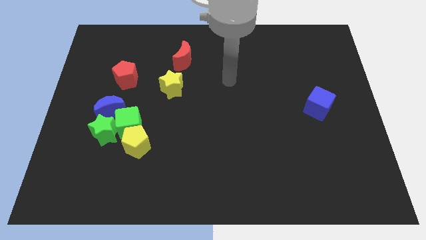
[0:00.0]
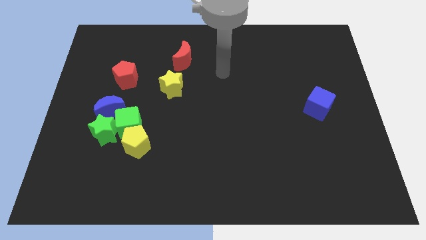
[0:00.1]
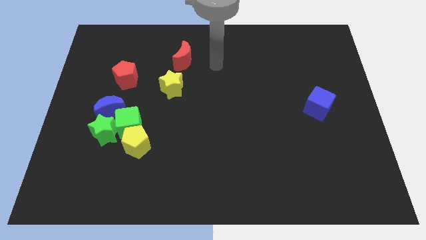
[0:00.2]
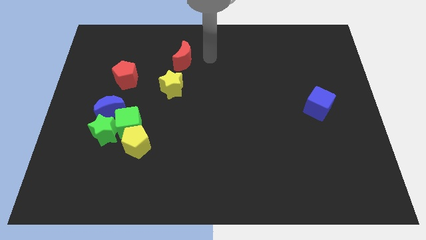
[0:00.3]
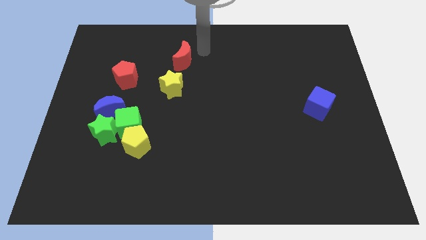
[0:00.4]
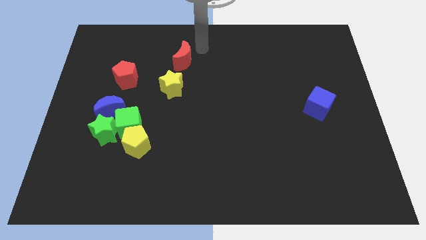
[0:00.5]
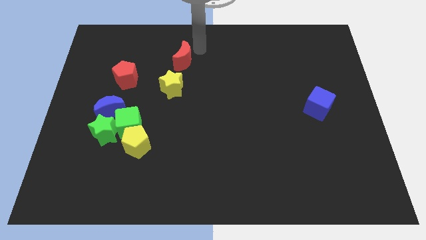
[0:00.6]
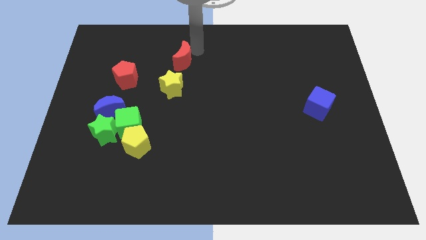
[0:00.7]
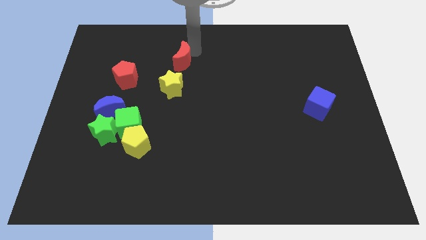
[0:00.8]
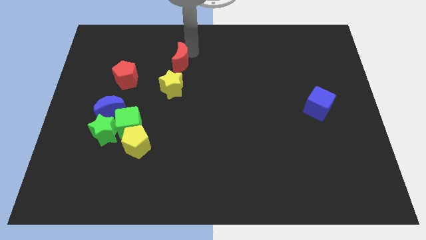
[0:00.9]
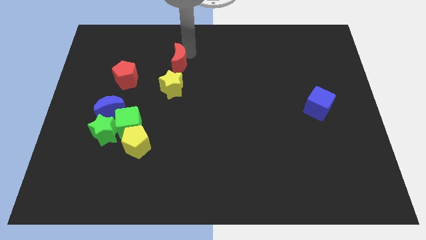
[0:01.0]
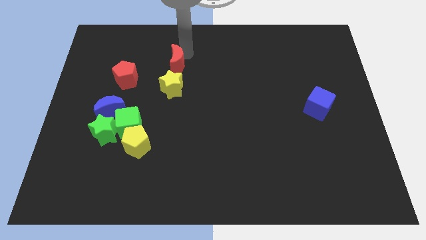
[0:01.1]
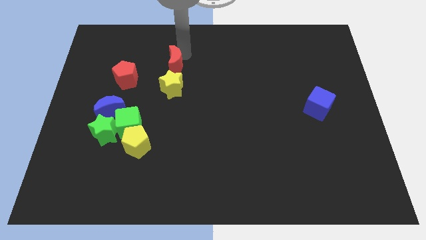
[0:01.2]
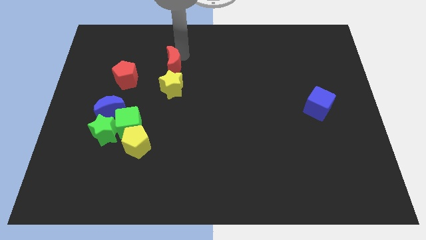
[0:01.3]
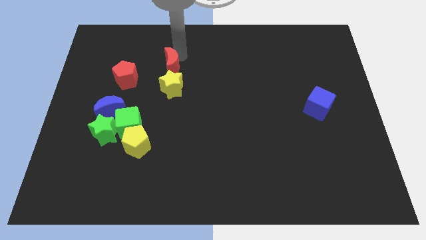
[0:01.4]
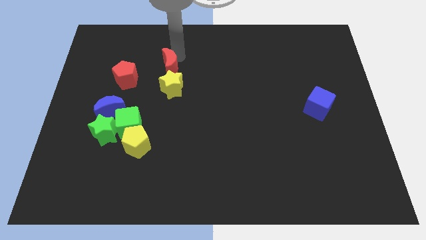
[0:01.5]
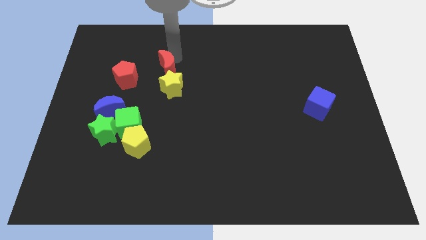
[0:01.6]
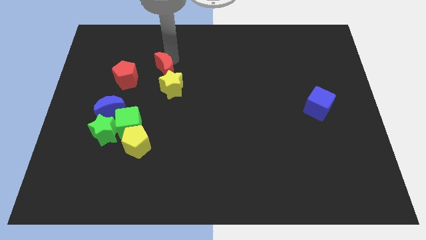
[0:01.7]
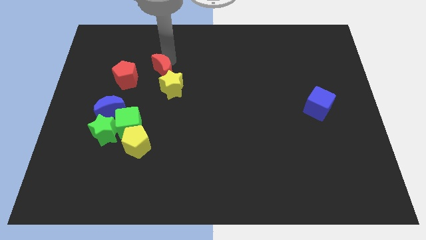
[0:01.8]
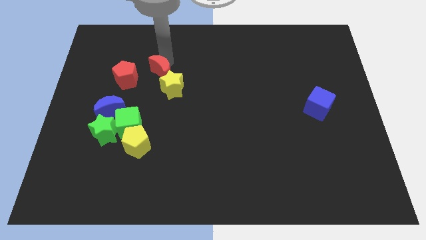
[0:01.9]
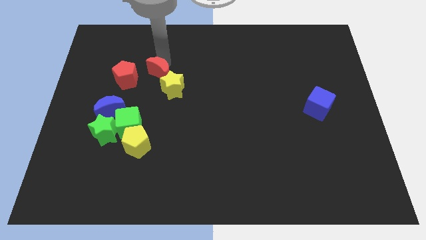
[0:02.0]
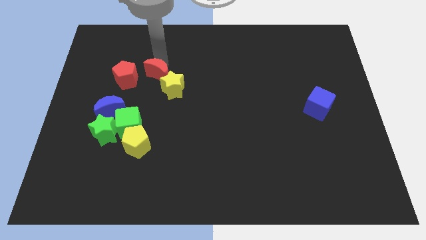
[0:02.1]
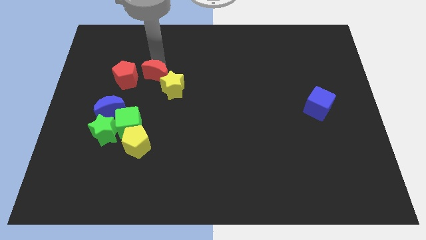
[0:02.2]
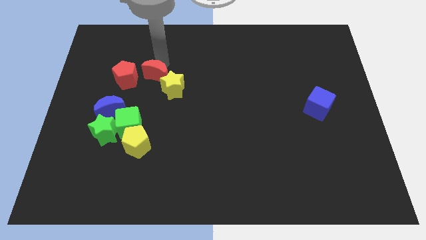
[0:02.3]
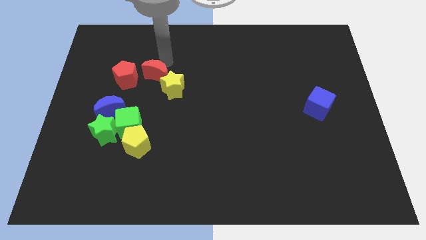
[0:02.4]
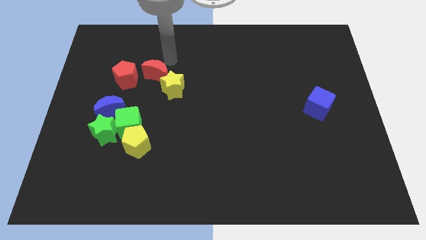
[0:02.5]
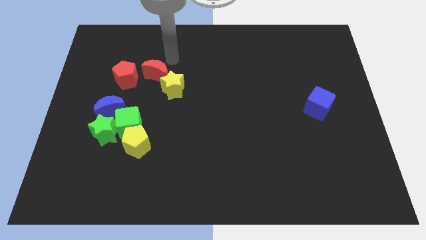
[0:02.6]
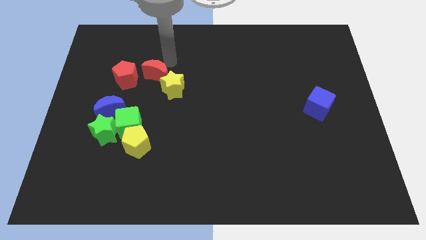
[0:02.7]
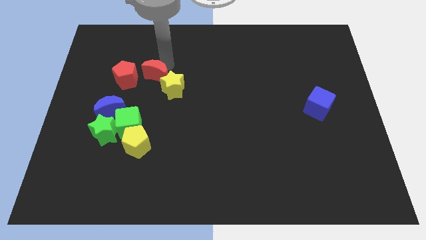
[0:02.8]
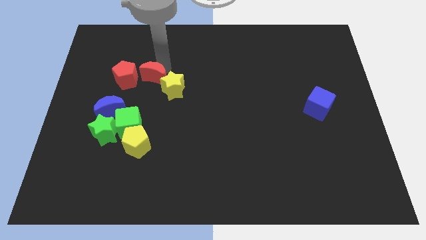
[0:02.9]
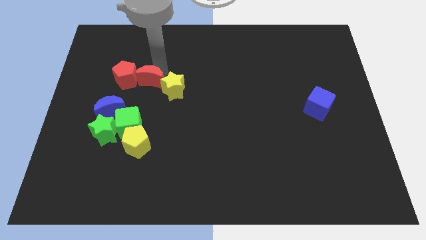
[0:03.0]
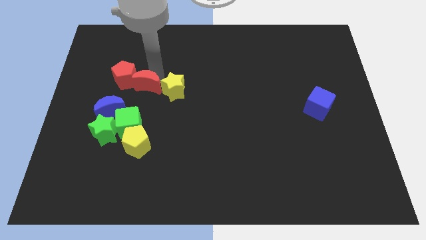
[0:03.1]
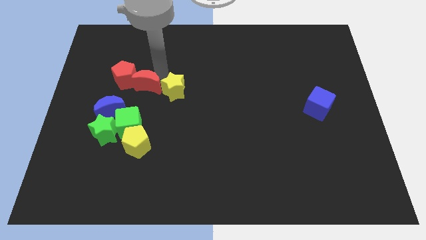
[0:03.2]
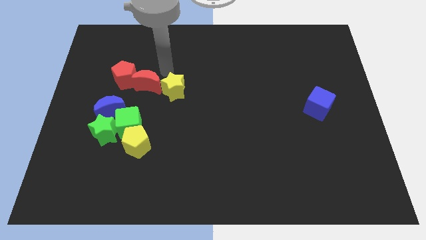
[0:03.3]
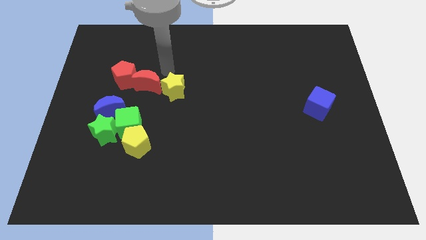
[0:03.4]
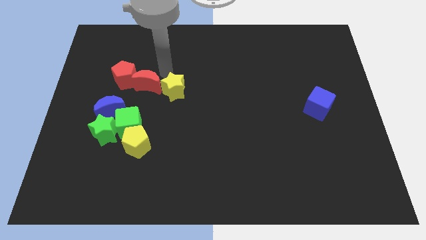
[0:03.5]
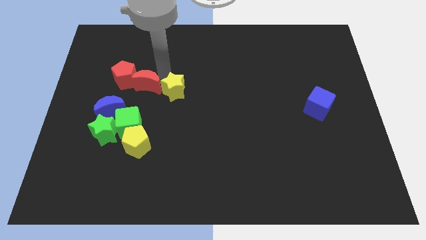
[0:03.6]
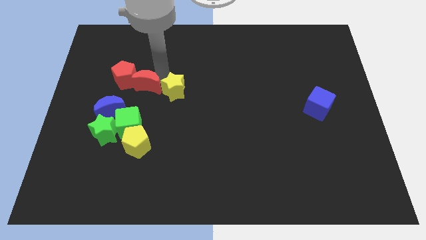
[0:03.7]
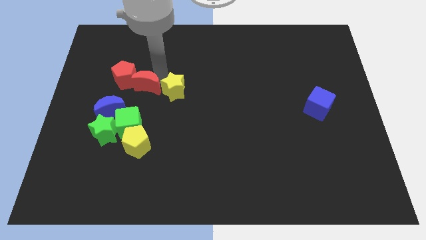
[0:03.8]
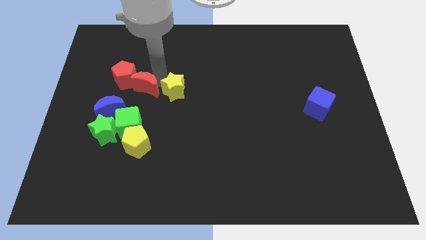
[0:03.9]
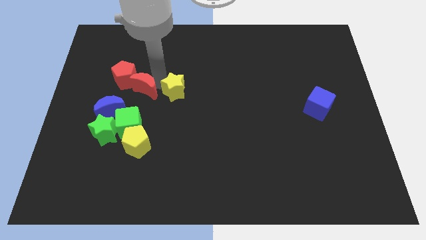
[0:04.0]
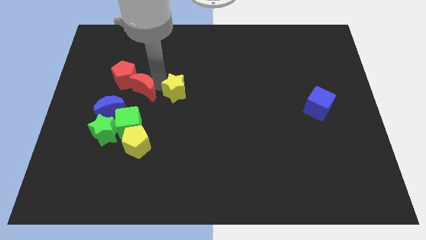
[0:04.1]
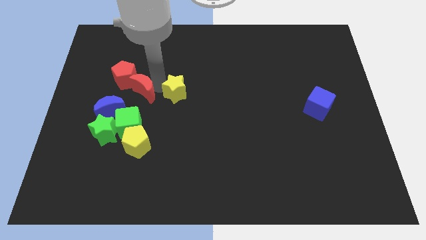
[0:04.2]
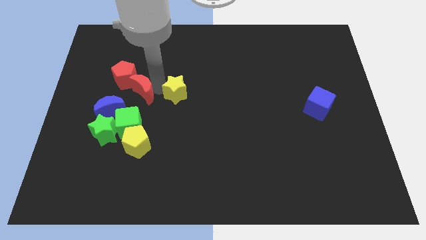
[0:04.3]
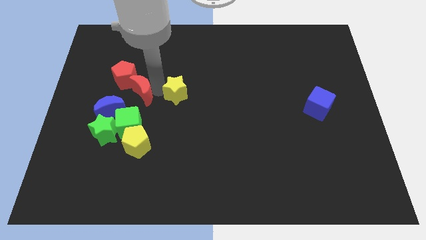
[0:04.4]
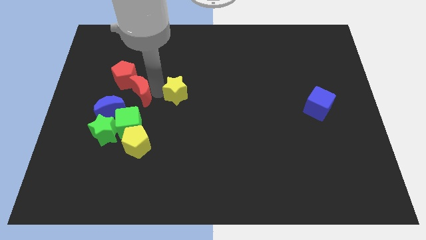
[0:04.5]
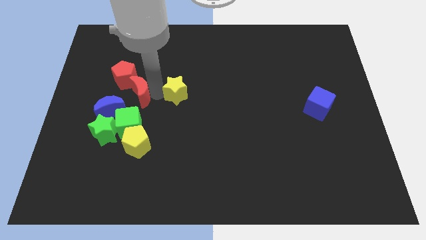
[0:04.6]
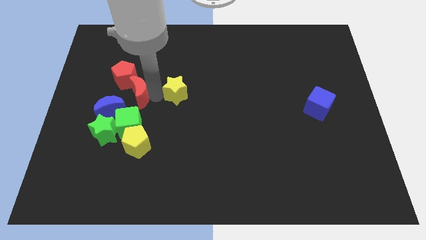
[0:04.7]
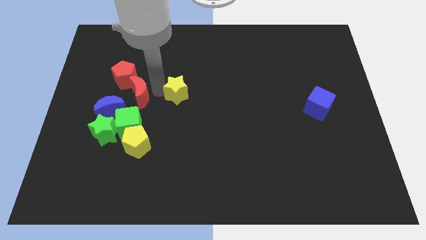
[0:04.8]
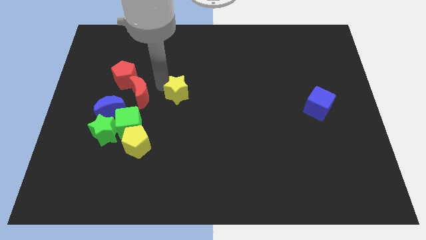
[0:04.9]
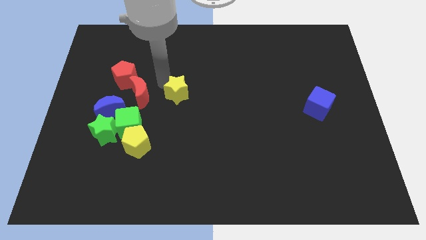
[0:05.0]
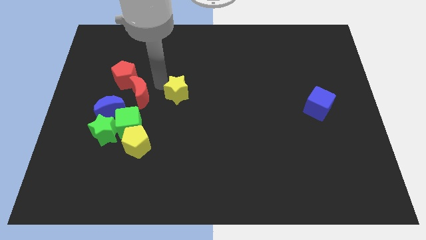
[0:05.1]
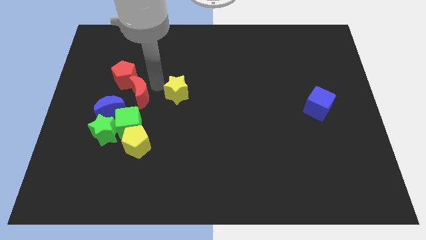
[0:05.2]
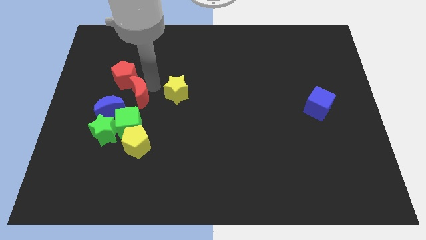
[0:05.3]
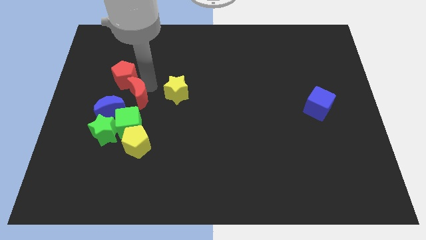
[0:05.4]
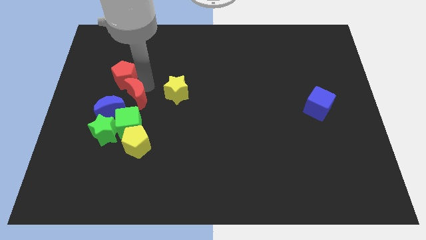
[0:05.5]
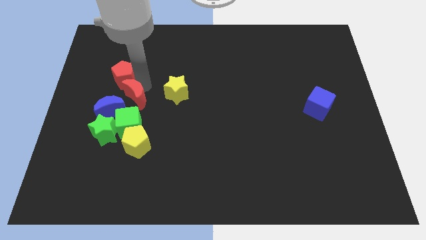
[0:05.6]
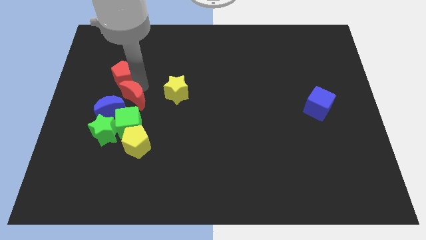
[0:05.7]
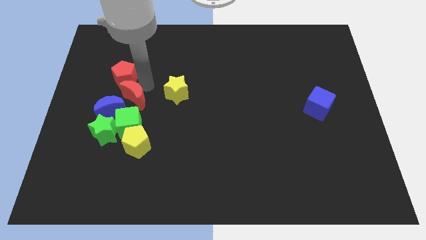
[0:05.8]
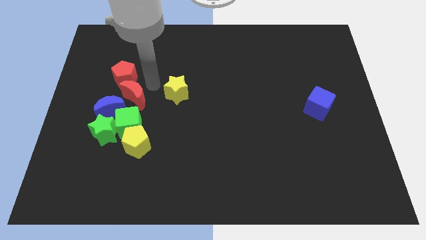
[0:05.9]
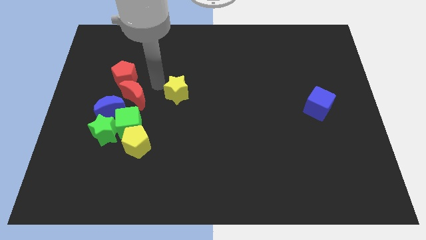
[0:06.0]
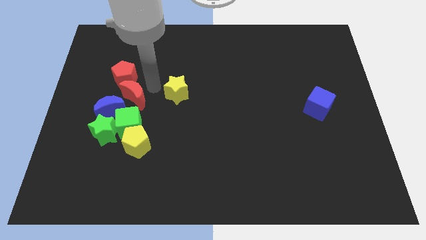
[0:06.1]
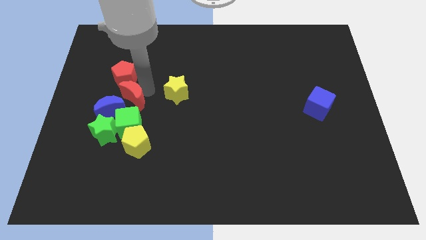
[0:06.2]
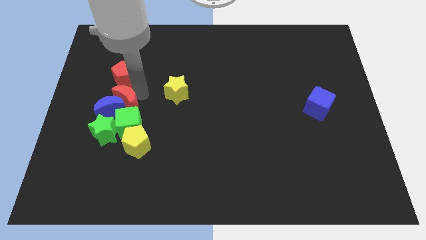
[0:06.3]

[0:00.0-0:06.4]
push the red moon next to the blue moon
